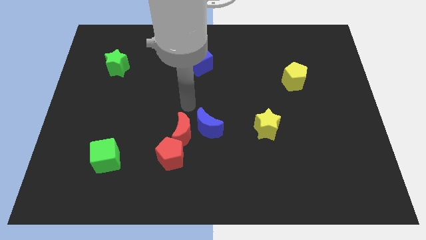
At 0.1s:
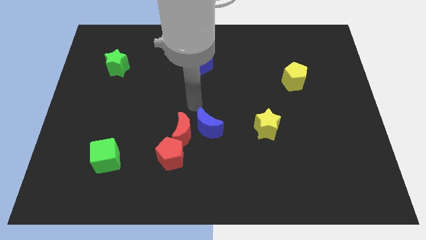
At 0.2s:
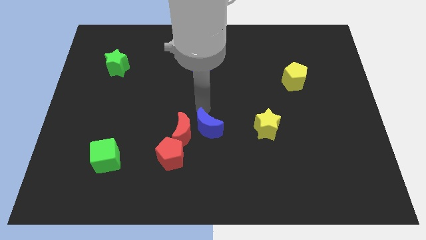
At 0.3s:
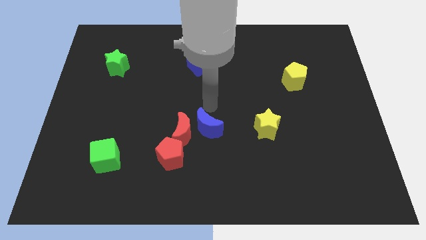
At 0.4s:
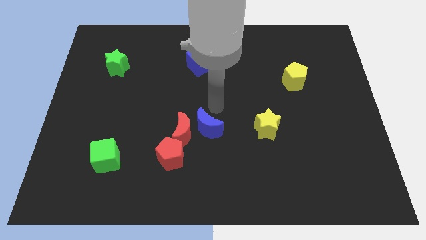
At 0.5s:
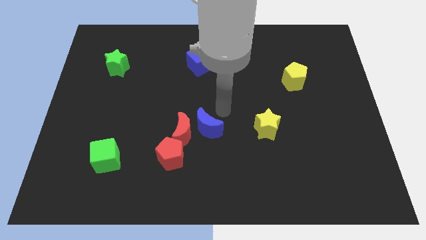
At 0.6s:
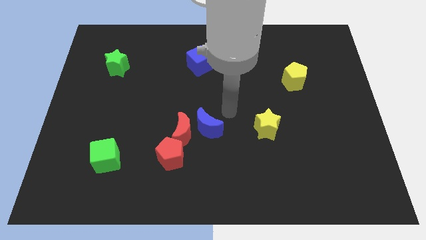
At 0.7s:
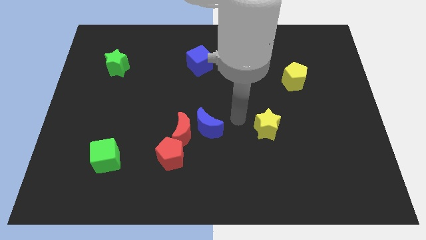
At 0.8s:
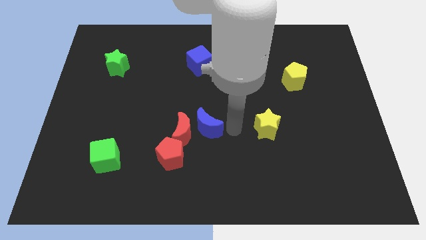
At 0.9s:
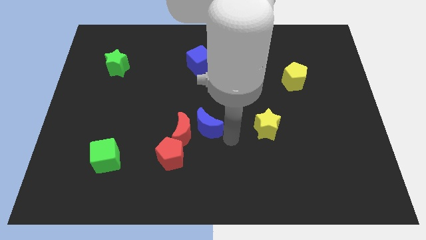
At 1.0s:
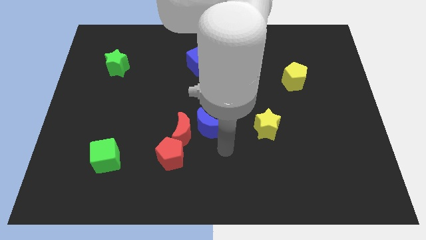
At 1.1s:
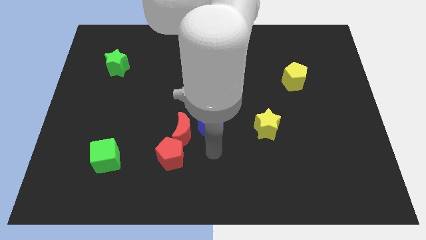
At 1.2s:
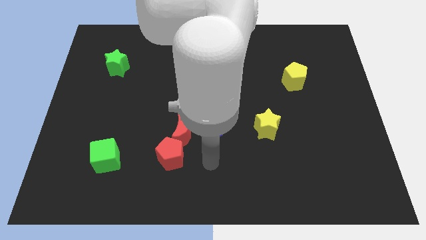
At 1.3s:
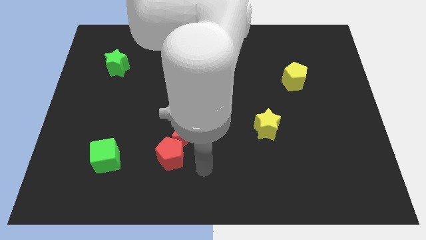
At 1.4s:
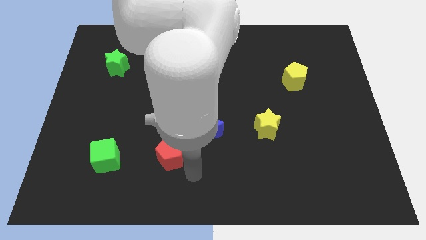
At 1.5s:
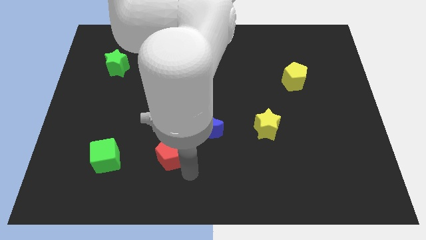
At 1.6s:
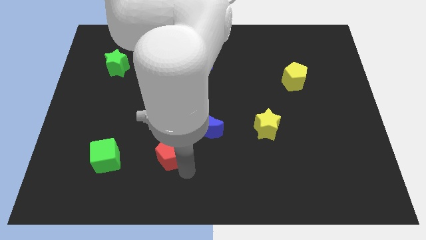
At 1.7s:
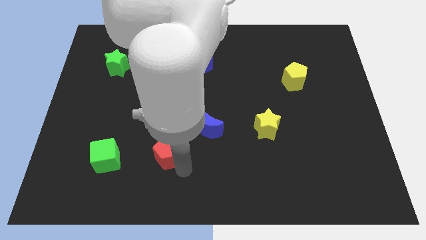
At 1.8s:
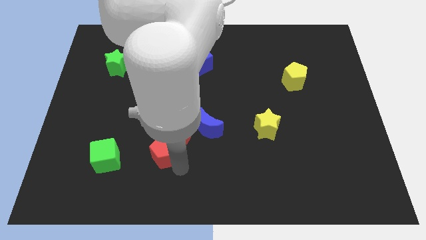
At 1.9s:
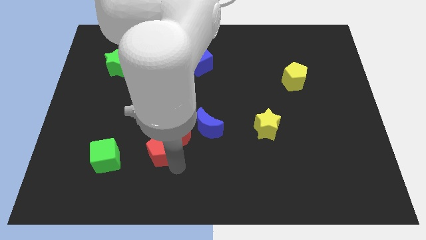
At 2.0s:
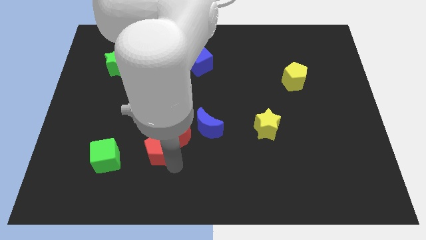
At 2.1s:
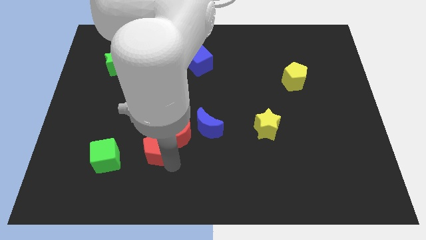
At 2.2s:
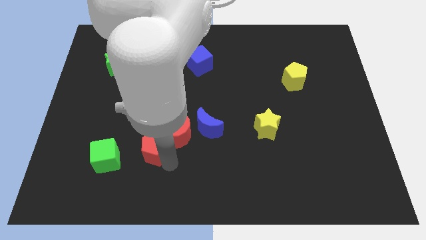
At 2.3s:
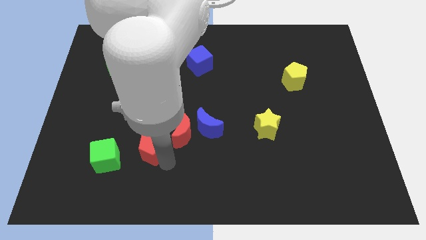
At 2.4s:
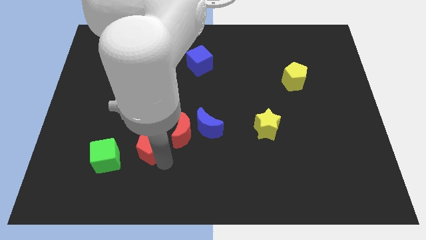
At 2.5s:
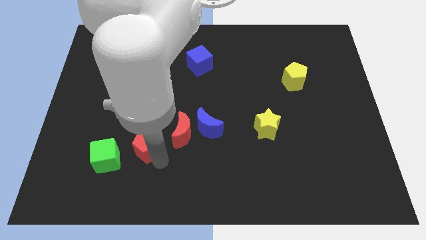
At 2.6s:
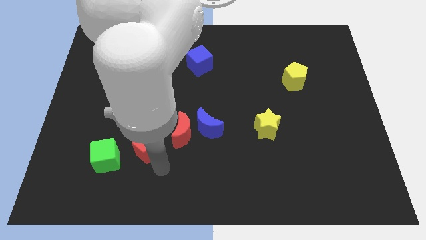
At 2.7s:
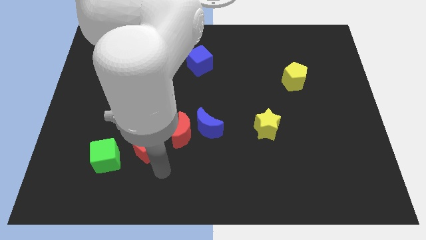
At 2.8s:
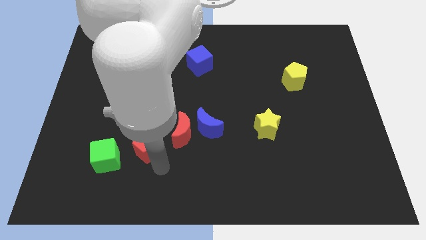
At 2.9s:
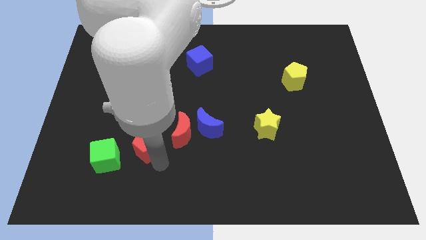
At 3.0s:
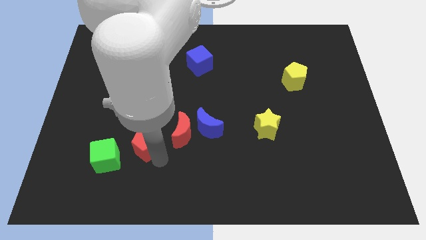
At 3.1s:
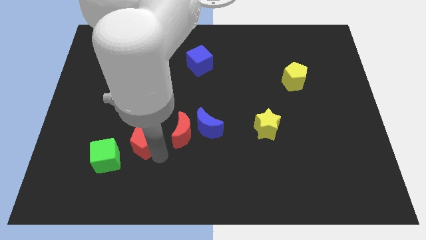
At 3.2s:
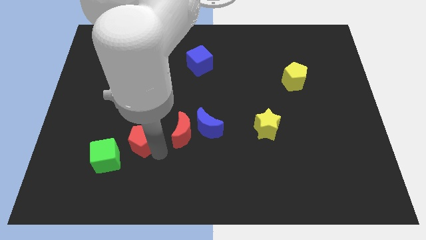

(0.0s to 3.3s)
push the red pentagon upwards and to the left diagonally a little bit

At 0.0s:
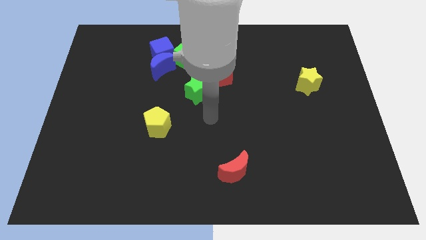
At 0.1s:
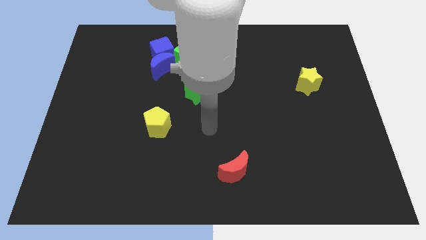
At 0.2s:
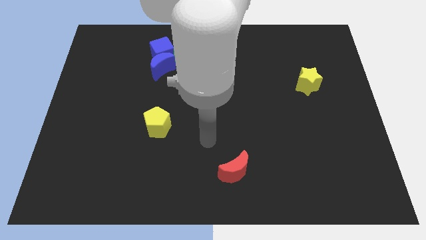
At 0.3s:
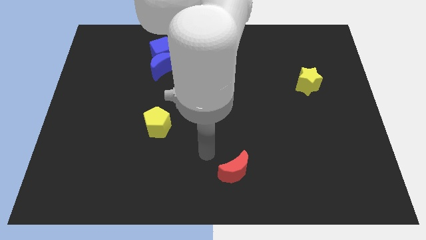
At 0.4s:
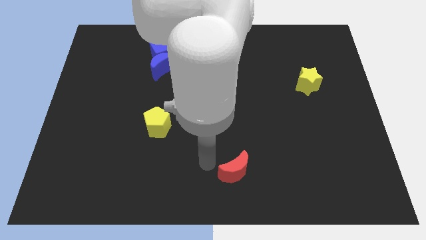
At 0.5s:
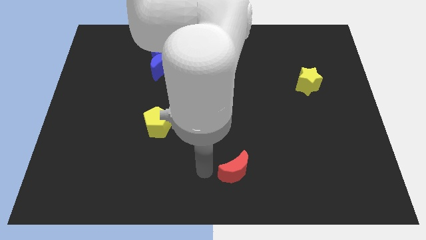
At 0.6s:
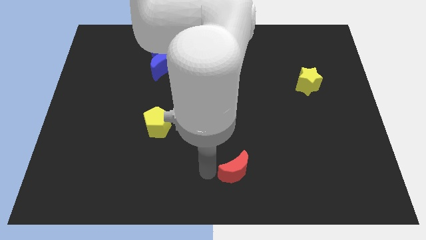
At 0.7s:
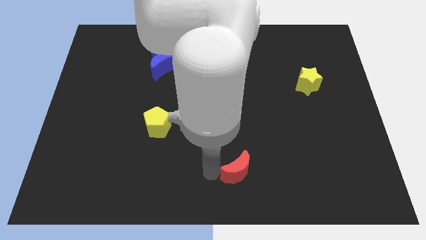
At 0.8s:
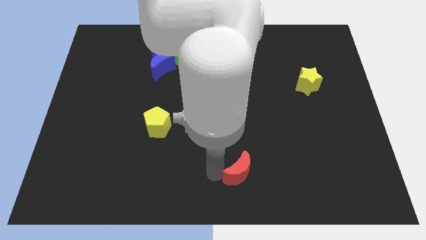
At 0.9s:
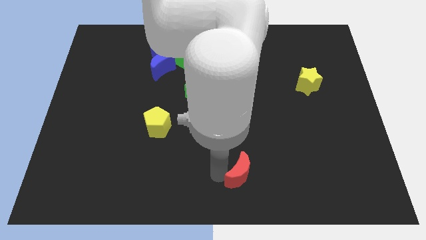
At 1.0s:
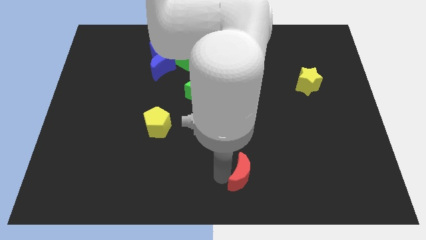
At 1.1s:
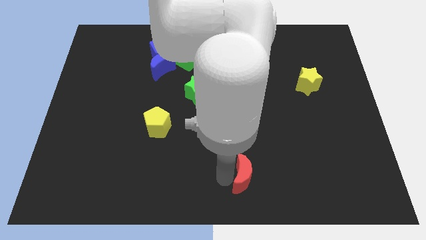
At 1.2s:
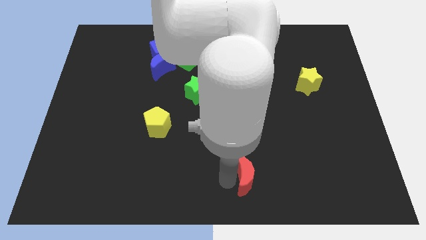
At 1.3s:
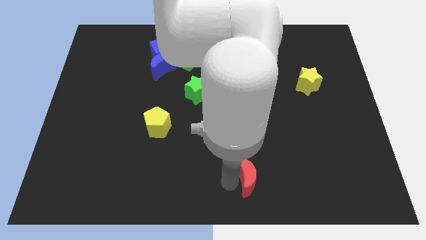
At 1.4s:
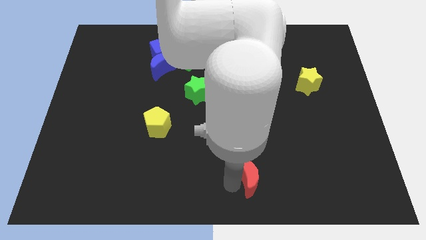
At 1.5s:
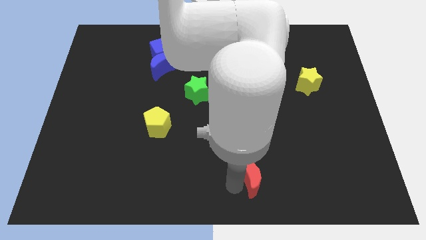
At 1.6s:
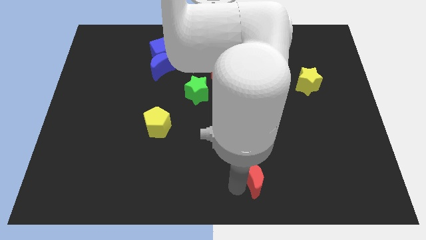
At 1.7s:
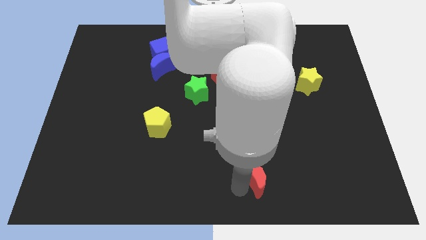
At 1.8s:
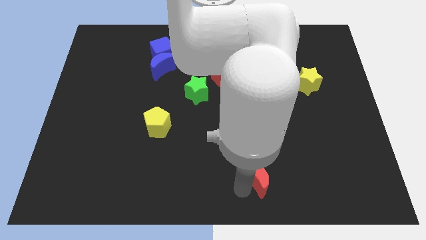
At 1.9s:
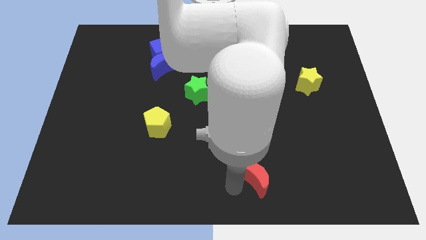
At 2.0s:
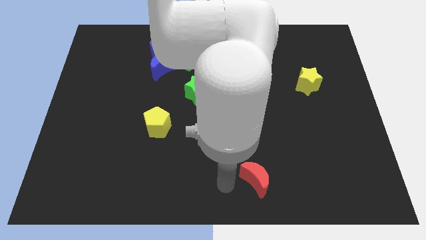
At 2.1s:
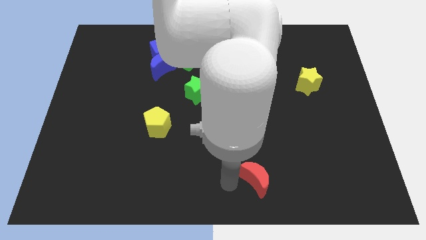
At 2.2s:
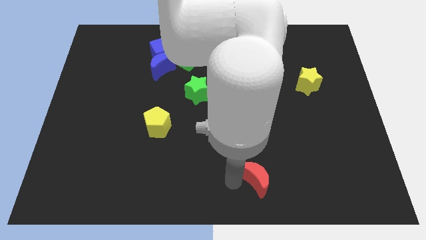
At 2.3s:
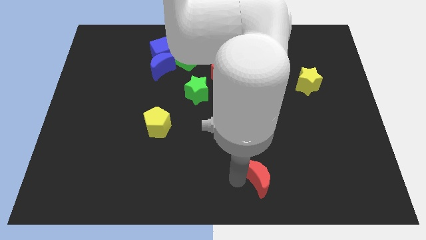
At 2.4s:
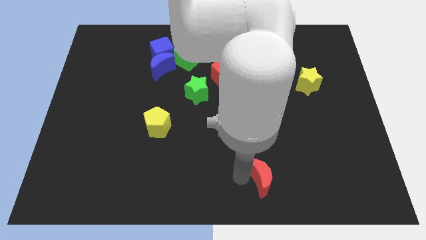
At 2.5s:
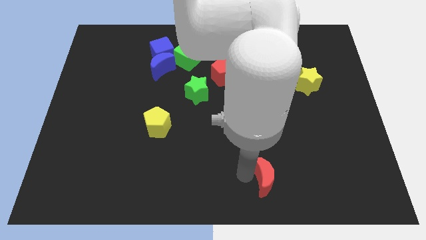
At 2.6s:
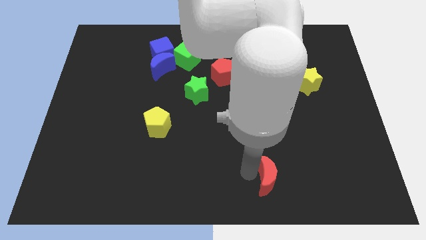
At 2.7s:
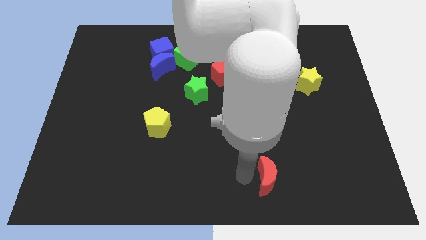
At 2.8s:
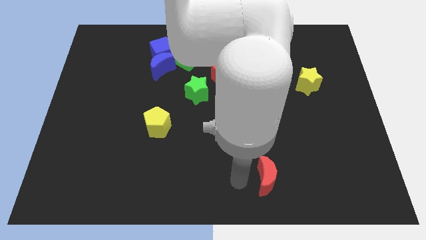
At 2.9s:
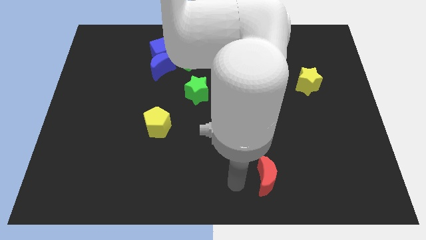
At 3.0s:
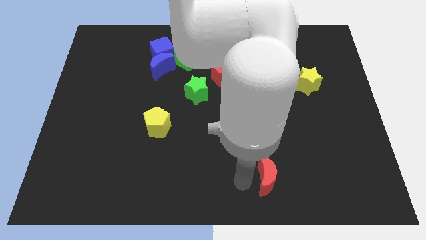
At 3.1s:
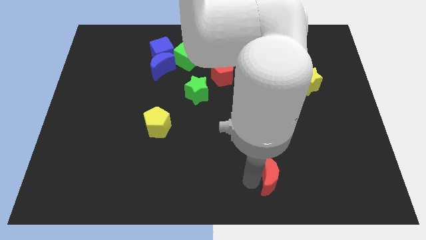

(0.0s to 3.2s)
push the red moon a little bit to the right

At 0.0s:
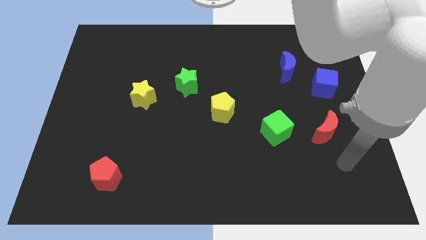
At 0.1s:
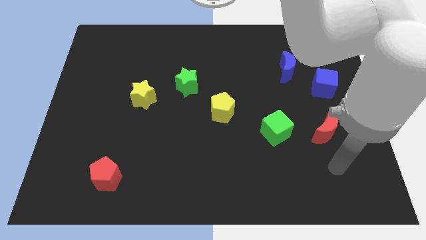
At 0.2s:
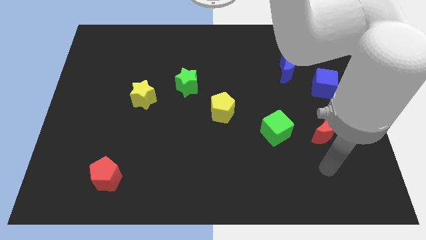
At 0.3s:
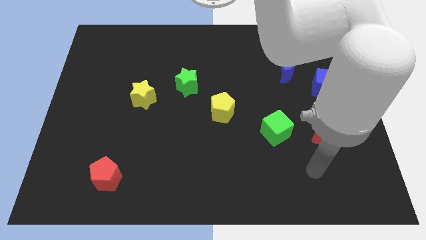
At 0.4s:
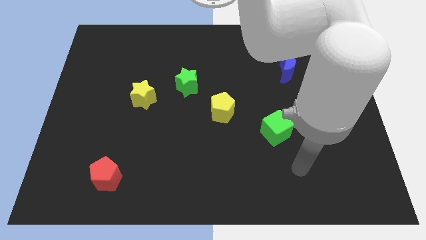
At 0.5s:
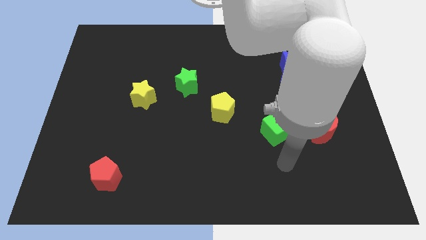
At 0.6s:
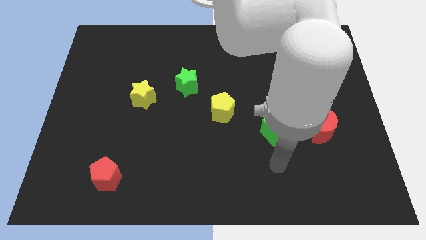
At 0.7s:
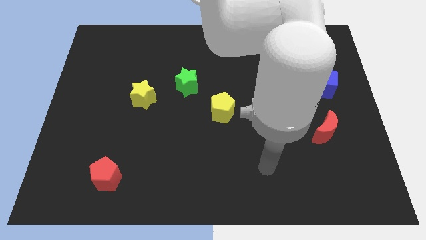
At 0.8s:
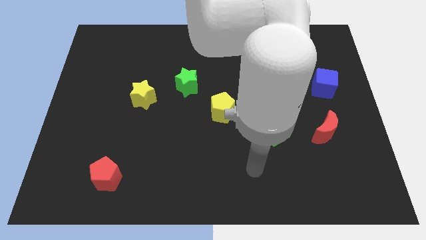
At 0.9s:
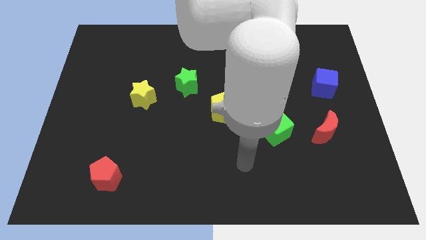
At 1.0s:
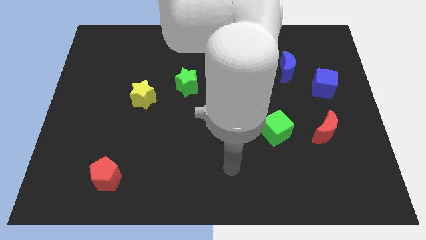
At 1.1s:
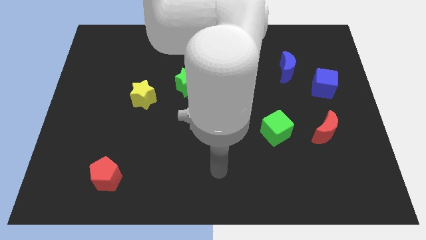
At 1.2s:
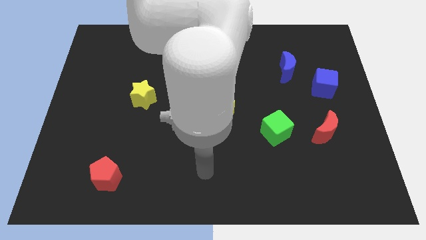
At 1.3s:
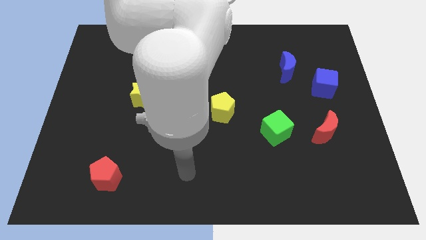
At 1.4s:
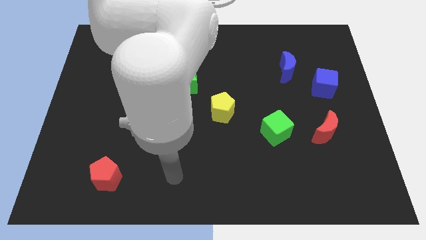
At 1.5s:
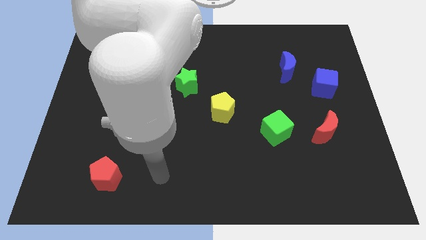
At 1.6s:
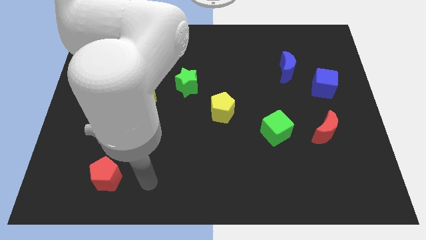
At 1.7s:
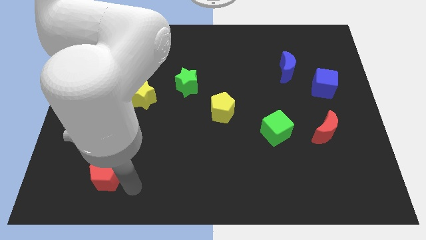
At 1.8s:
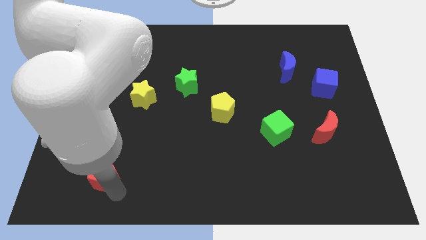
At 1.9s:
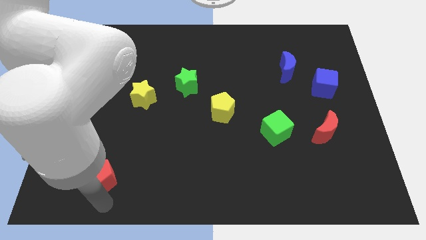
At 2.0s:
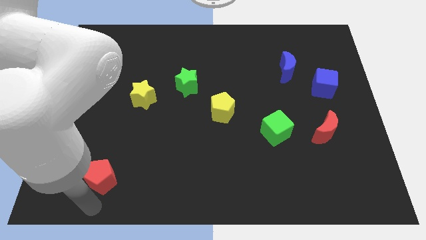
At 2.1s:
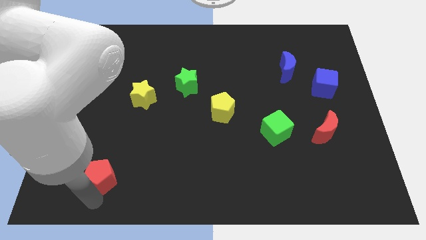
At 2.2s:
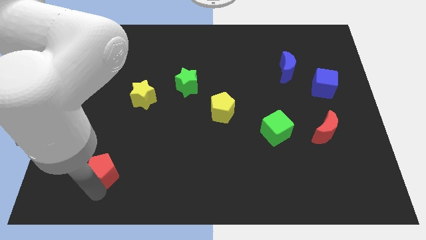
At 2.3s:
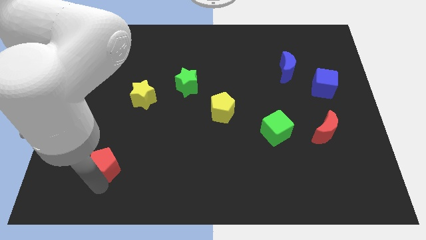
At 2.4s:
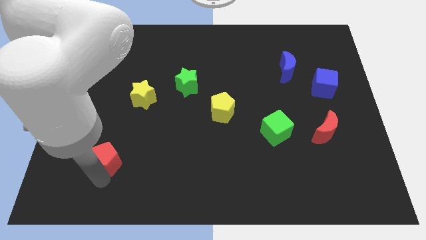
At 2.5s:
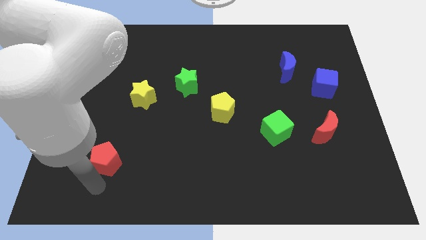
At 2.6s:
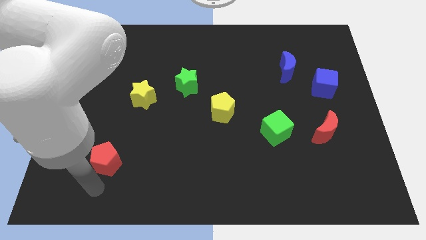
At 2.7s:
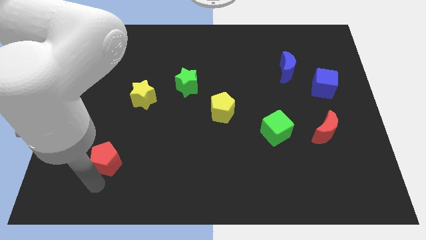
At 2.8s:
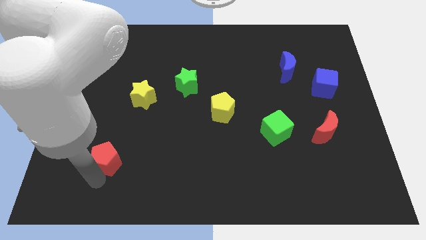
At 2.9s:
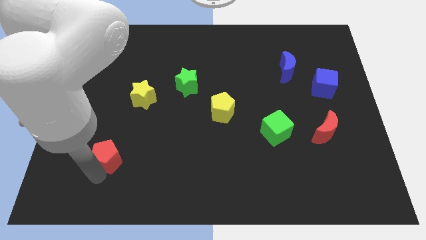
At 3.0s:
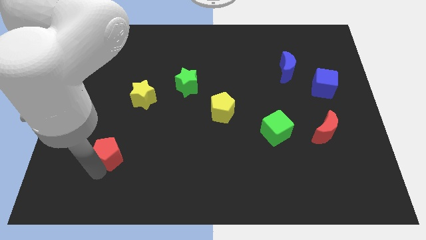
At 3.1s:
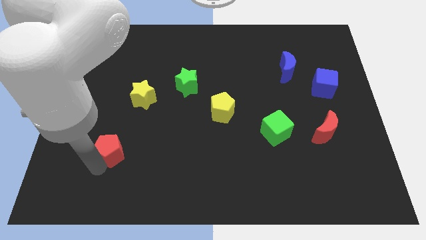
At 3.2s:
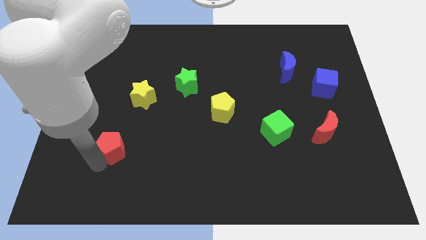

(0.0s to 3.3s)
slightly push the red pentagon upwards
